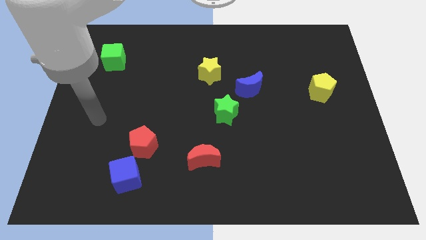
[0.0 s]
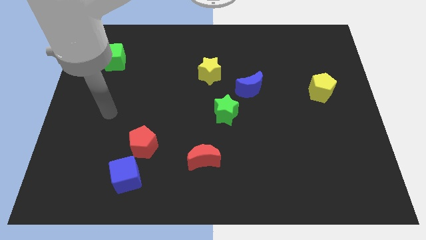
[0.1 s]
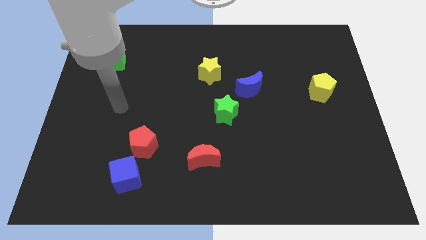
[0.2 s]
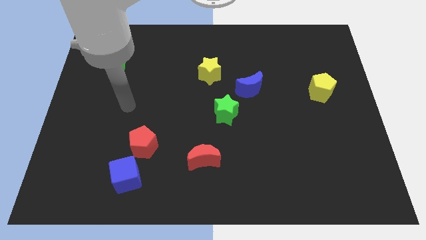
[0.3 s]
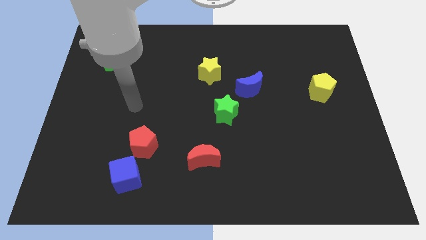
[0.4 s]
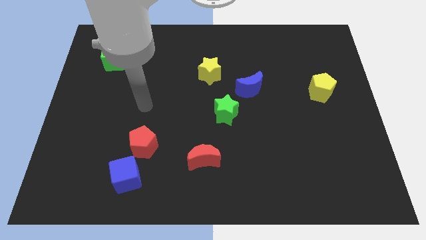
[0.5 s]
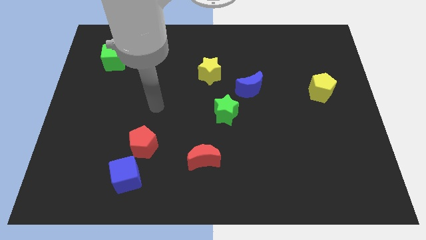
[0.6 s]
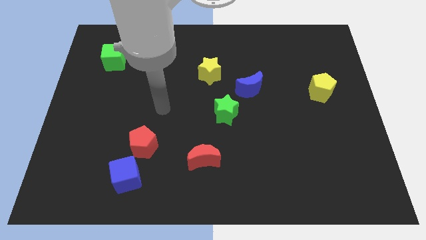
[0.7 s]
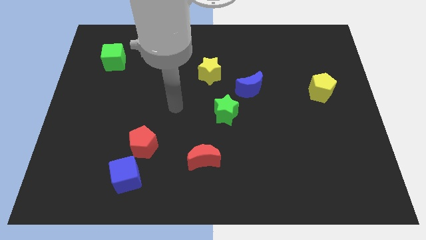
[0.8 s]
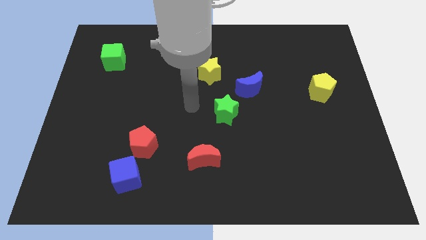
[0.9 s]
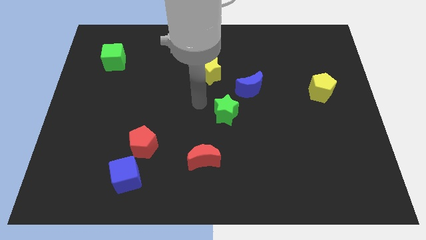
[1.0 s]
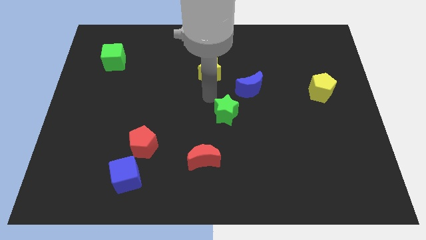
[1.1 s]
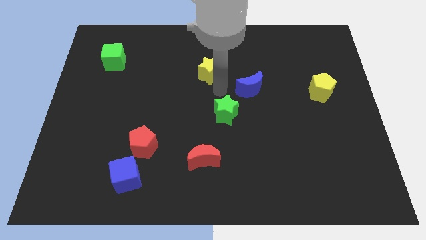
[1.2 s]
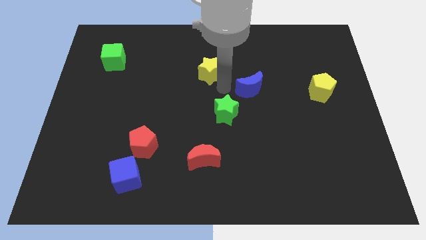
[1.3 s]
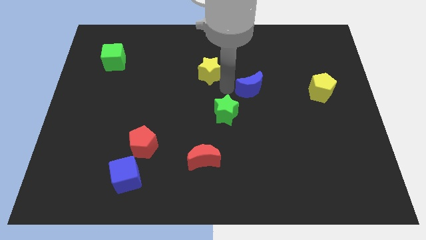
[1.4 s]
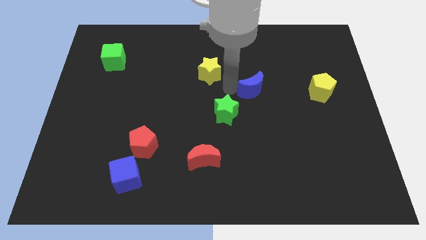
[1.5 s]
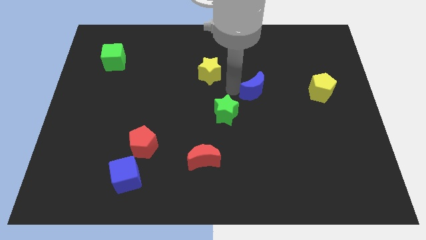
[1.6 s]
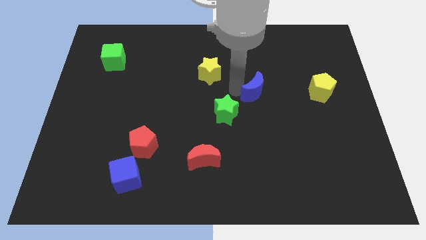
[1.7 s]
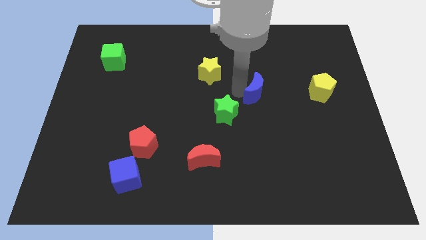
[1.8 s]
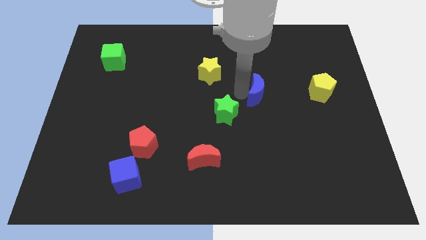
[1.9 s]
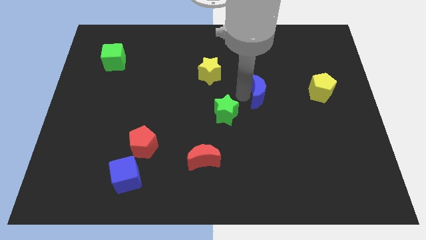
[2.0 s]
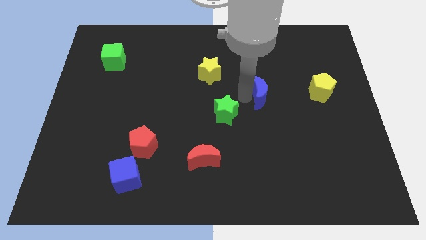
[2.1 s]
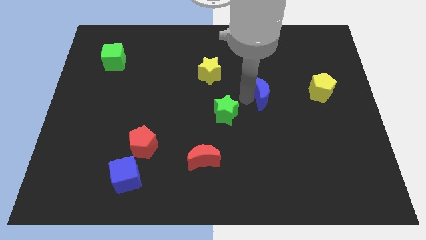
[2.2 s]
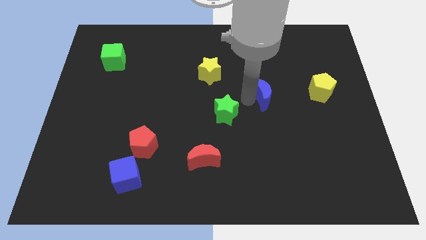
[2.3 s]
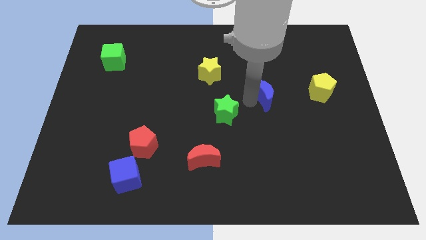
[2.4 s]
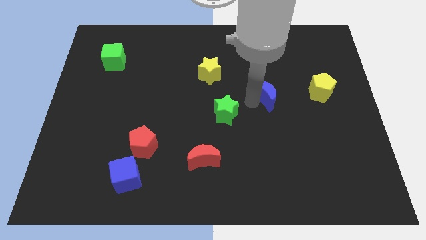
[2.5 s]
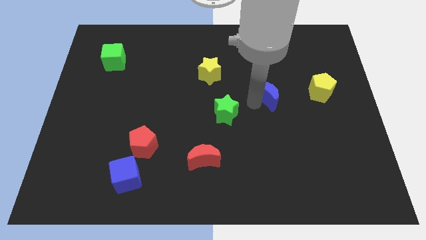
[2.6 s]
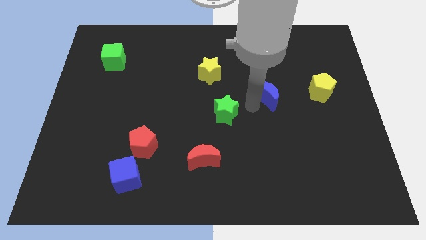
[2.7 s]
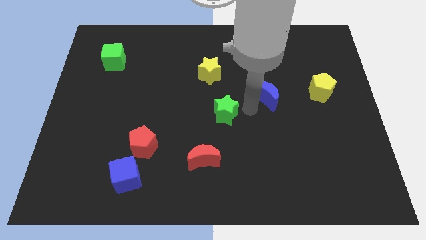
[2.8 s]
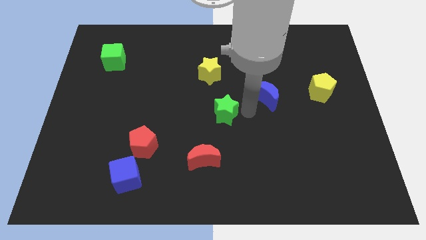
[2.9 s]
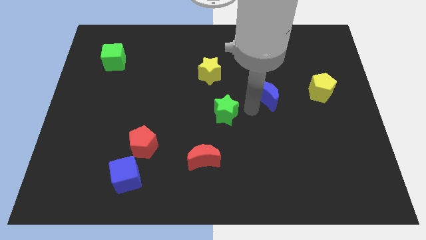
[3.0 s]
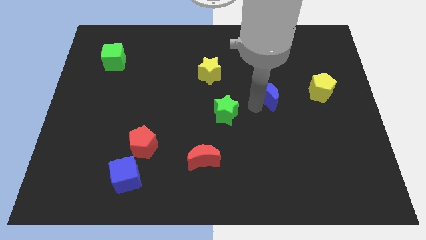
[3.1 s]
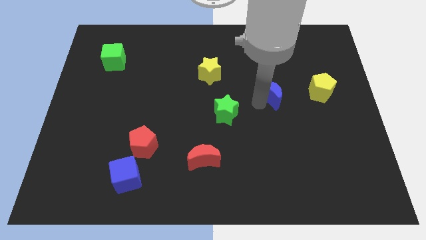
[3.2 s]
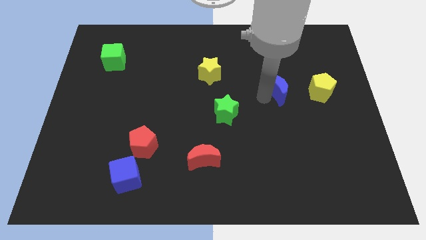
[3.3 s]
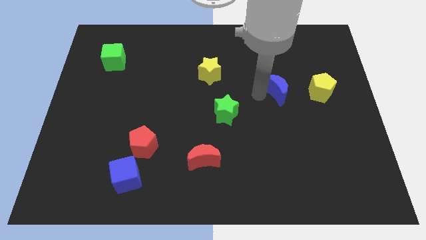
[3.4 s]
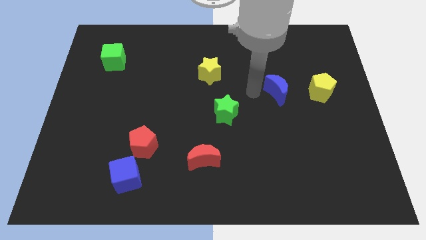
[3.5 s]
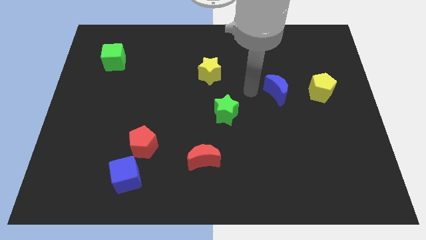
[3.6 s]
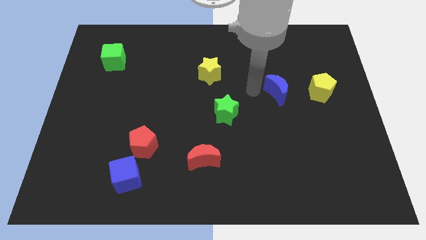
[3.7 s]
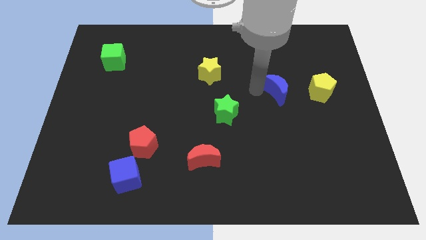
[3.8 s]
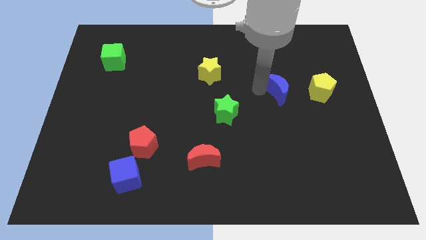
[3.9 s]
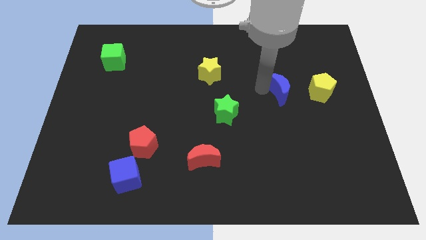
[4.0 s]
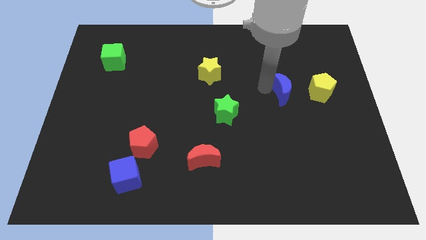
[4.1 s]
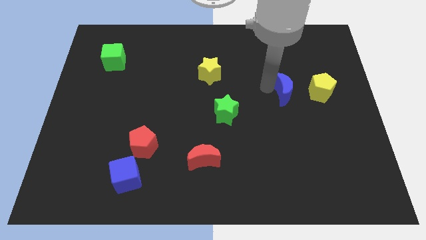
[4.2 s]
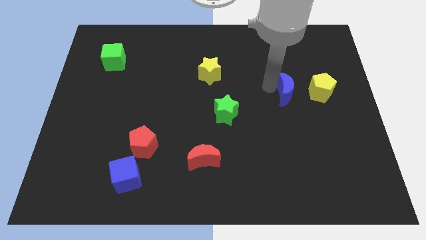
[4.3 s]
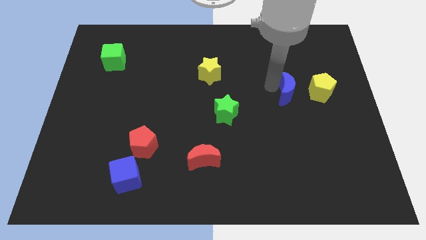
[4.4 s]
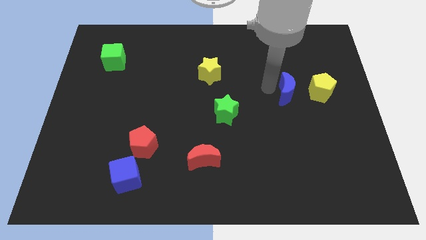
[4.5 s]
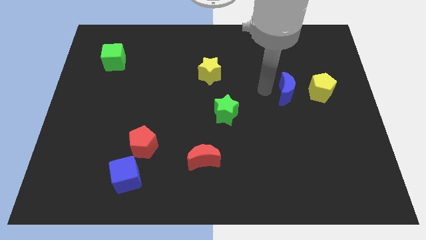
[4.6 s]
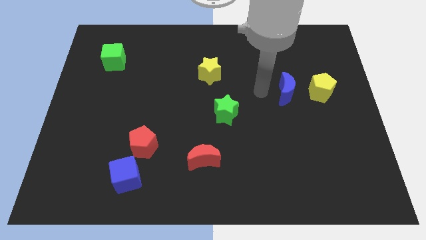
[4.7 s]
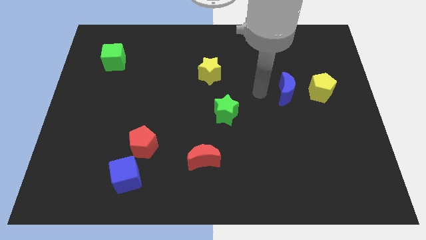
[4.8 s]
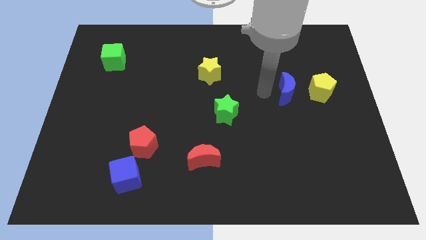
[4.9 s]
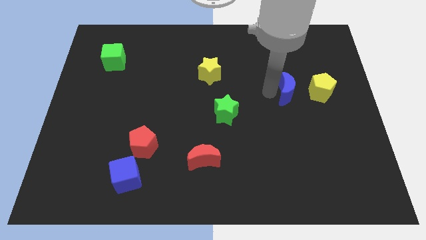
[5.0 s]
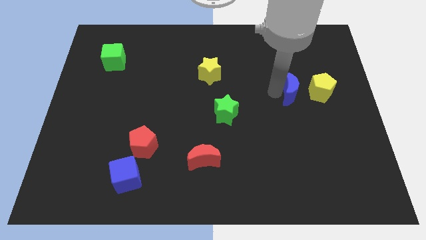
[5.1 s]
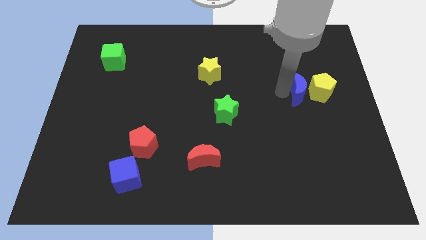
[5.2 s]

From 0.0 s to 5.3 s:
move the blue moon to the yellow pentagon
